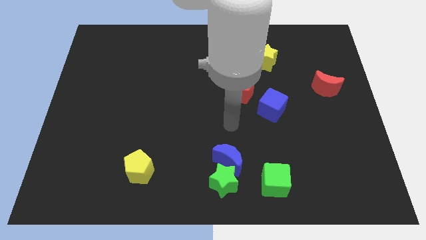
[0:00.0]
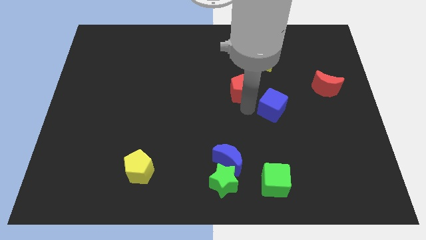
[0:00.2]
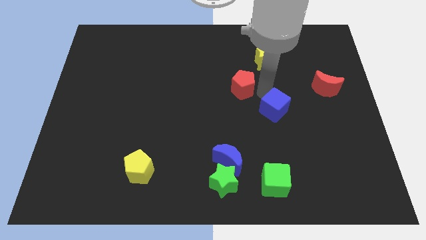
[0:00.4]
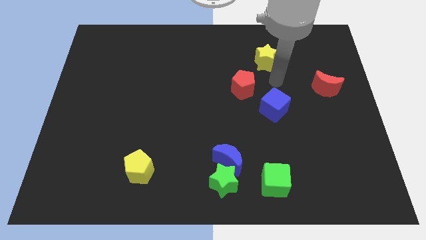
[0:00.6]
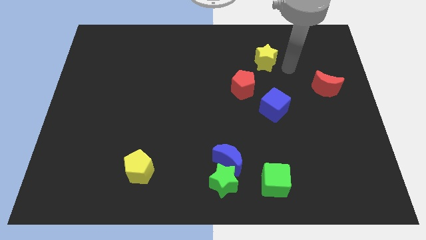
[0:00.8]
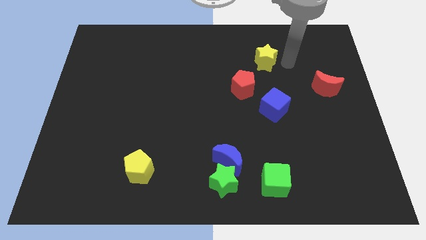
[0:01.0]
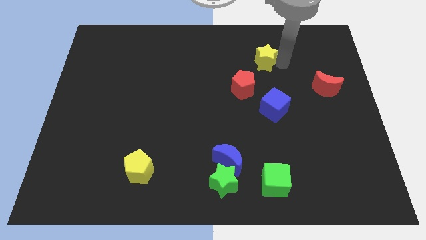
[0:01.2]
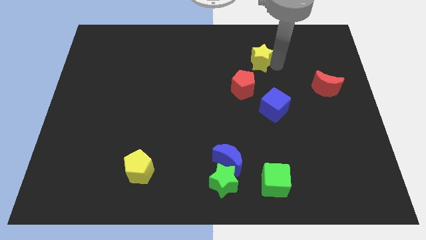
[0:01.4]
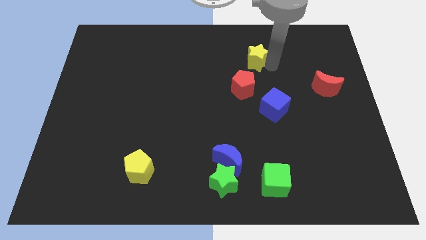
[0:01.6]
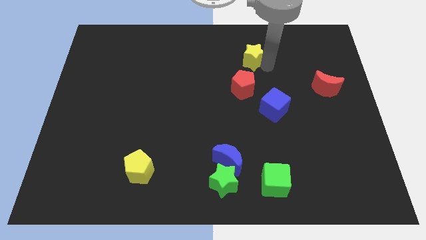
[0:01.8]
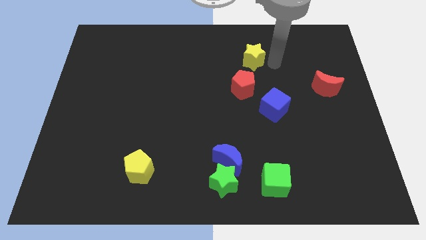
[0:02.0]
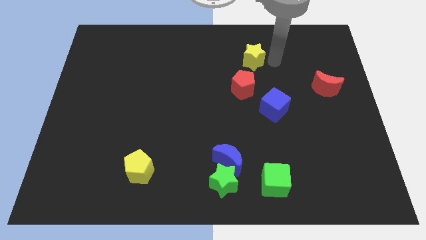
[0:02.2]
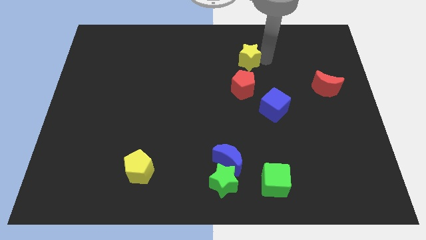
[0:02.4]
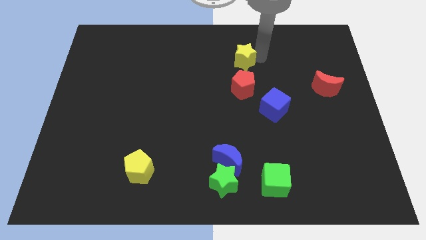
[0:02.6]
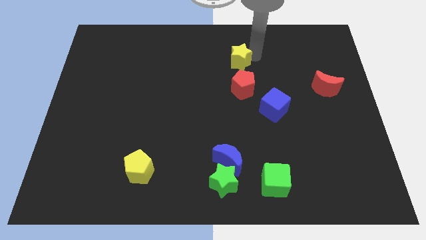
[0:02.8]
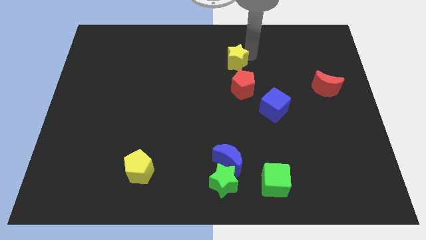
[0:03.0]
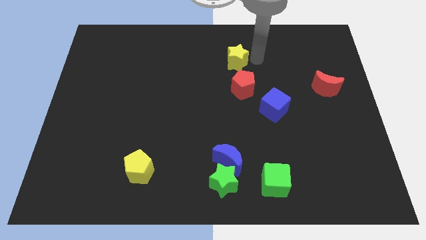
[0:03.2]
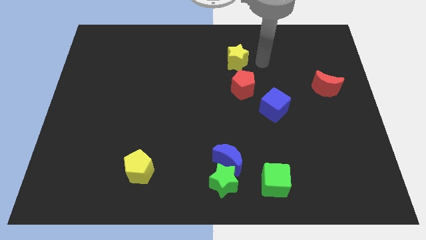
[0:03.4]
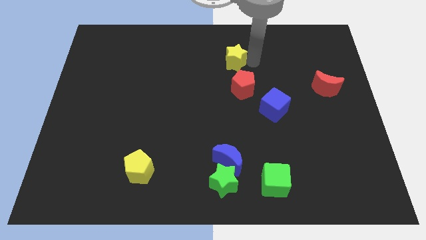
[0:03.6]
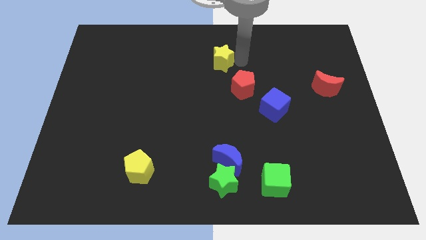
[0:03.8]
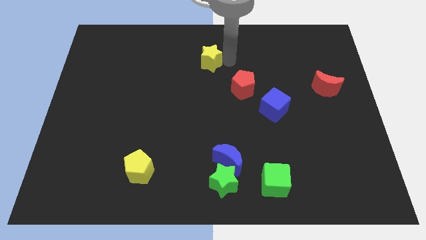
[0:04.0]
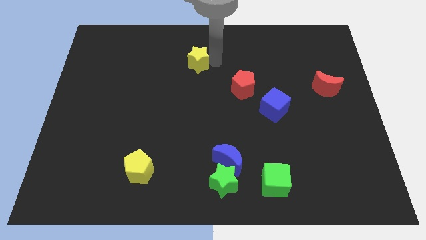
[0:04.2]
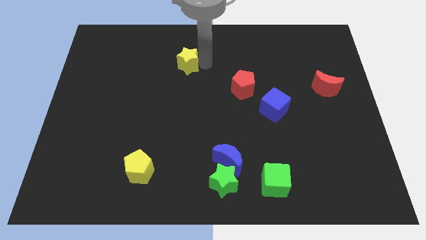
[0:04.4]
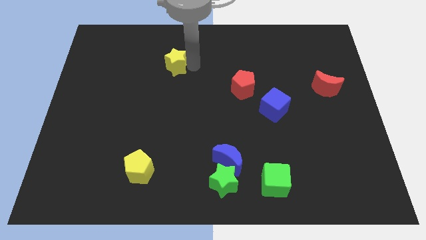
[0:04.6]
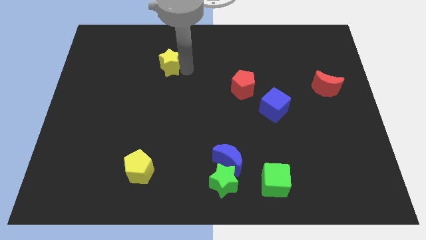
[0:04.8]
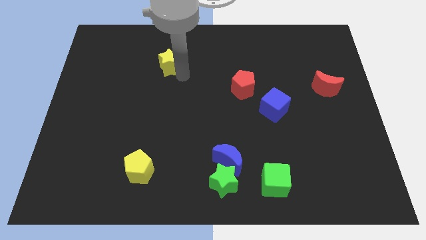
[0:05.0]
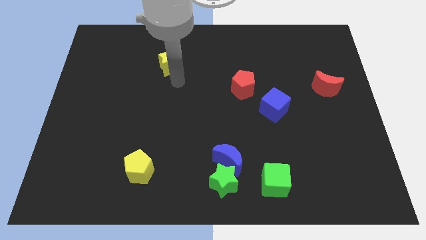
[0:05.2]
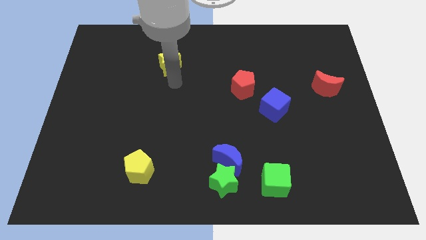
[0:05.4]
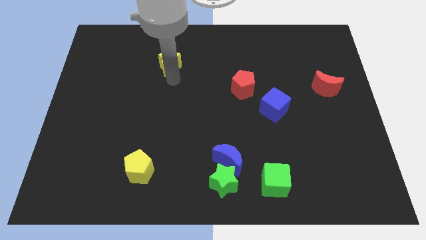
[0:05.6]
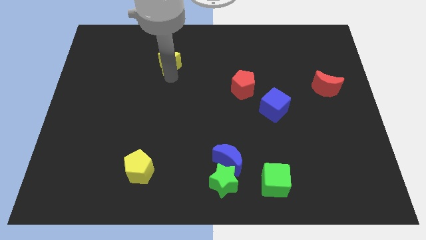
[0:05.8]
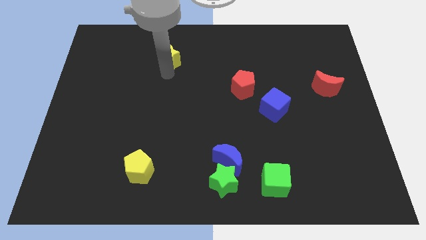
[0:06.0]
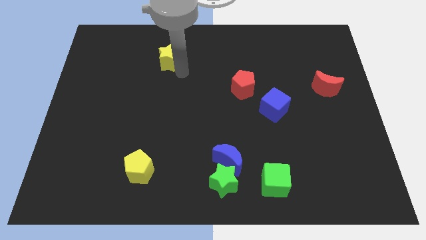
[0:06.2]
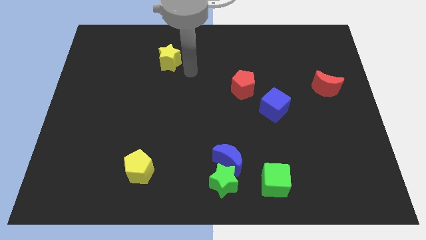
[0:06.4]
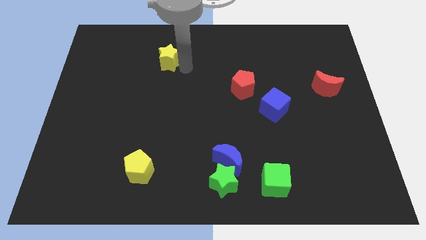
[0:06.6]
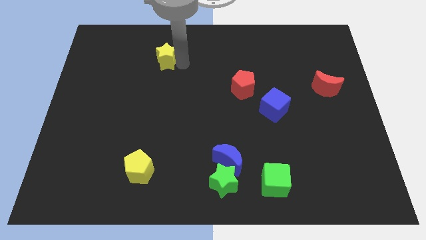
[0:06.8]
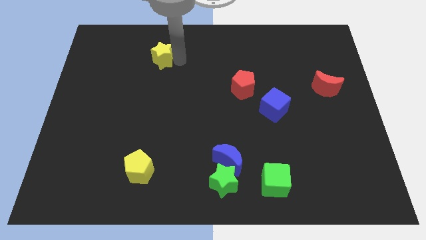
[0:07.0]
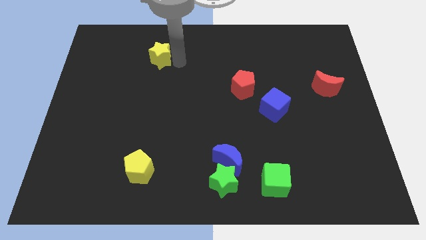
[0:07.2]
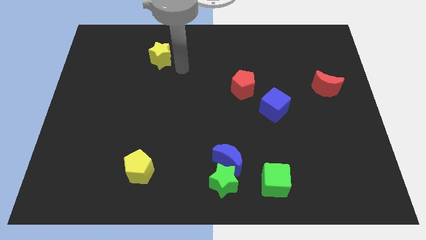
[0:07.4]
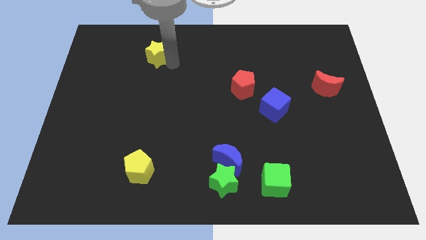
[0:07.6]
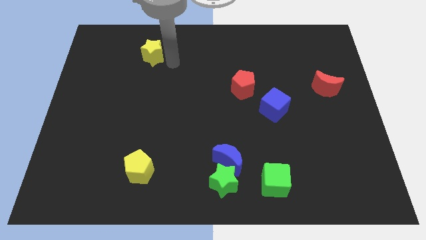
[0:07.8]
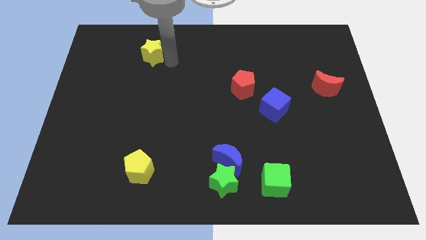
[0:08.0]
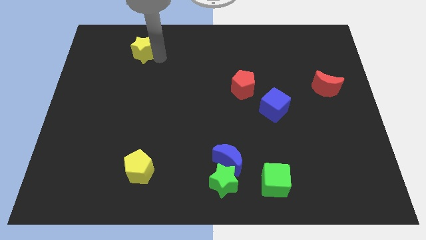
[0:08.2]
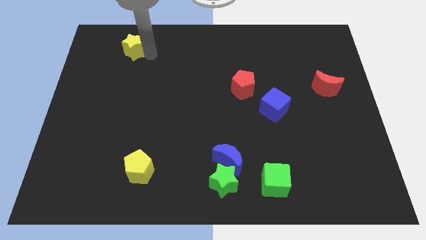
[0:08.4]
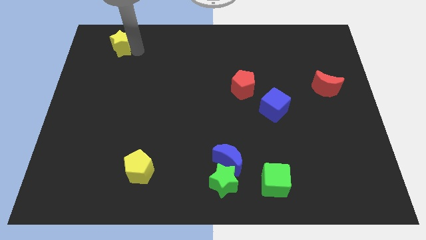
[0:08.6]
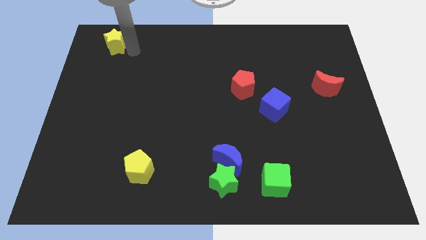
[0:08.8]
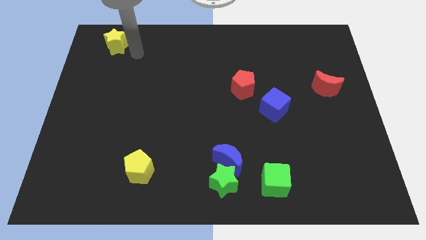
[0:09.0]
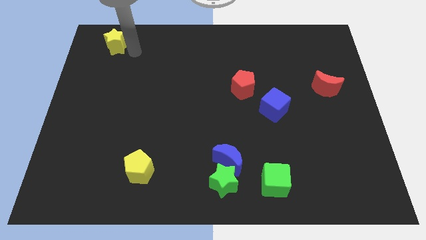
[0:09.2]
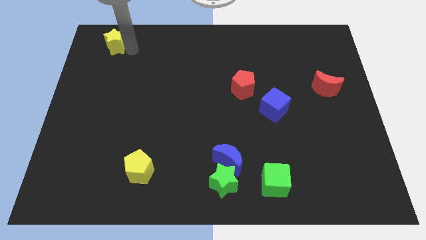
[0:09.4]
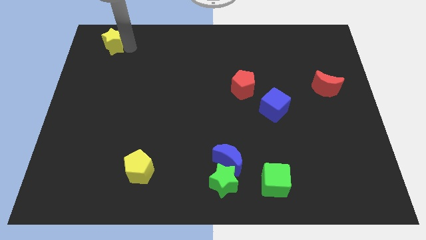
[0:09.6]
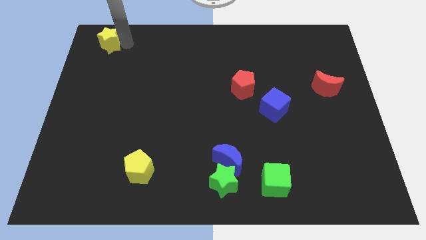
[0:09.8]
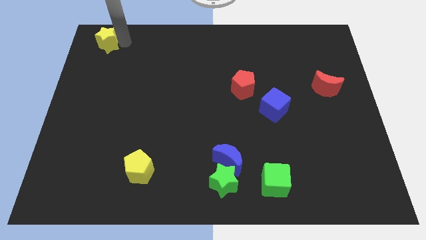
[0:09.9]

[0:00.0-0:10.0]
slide the yellow star to the top left corner

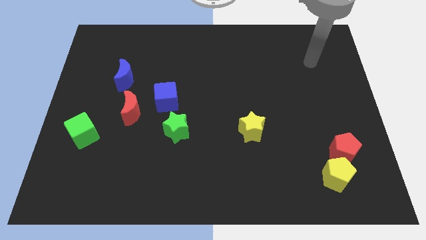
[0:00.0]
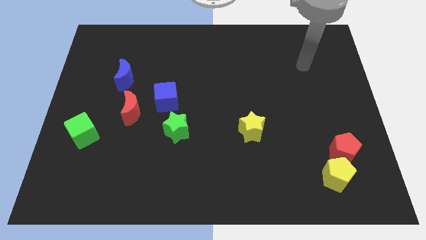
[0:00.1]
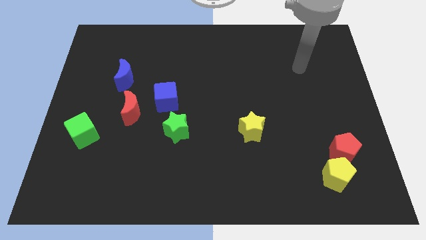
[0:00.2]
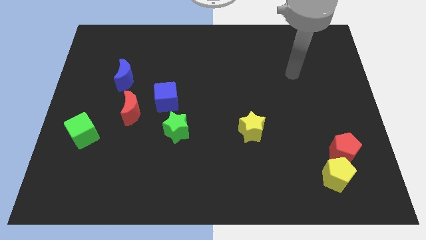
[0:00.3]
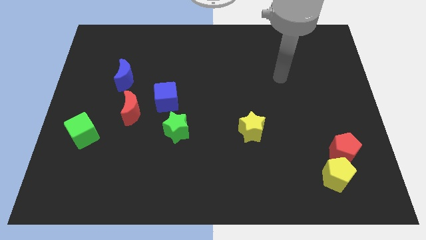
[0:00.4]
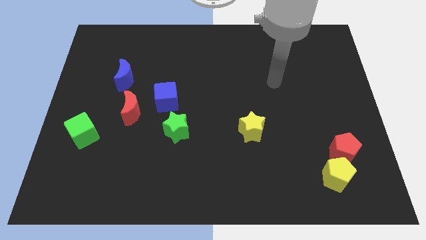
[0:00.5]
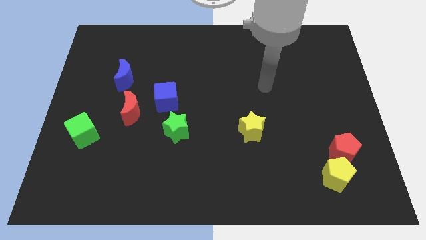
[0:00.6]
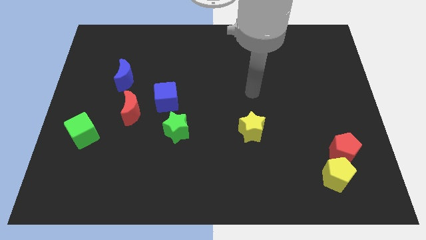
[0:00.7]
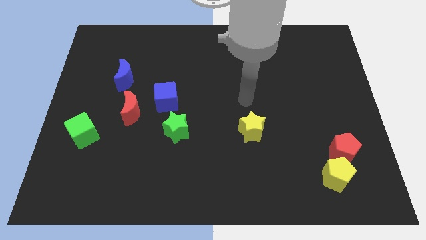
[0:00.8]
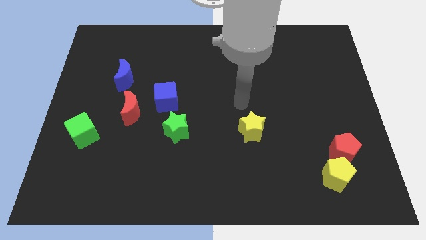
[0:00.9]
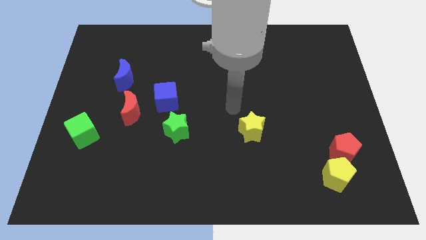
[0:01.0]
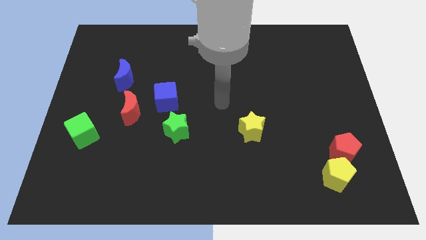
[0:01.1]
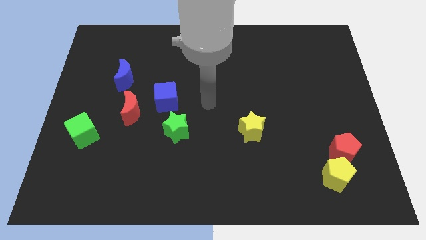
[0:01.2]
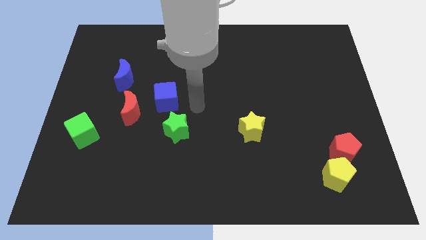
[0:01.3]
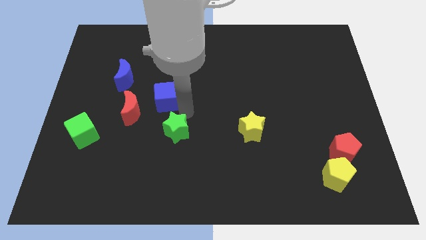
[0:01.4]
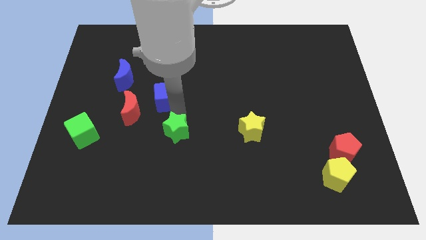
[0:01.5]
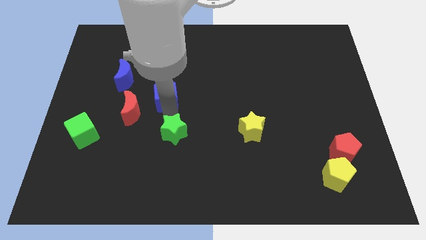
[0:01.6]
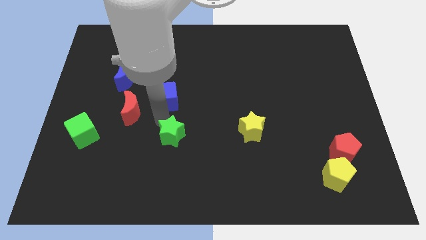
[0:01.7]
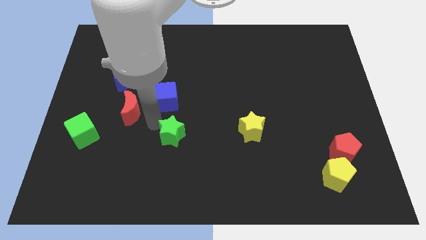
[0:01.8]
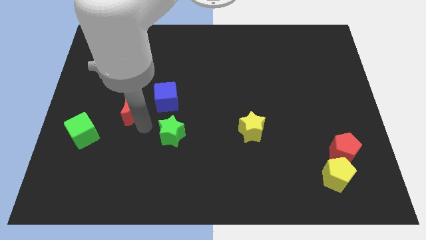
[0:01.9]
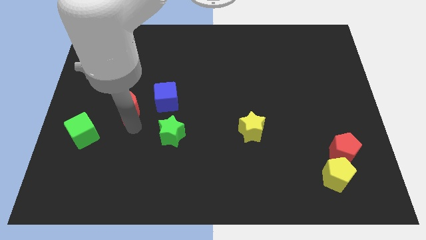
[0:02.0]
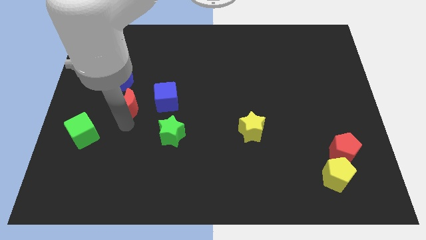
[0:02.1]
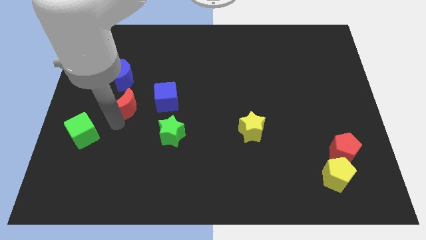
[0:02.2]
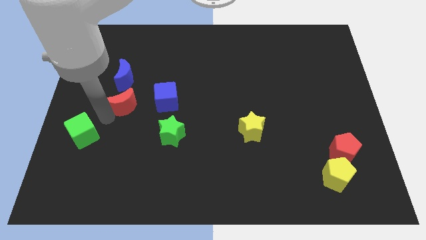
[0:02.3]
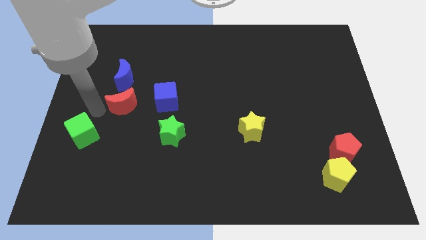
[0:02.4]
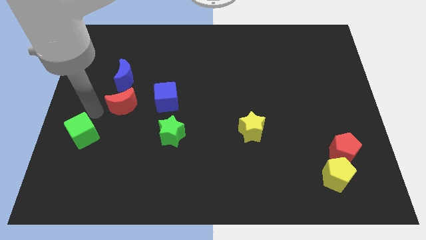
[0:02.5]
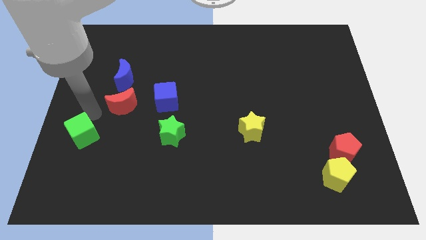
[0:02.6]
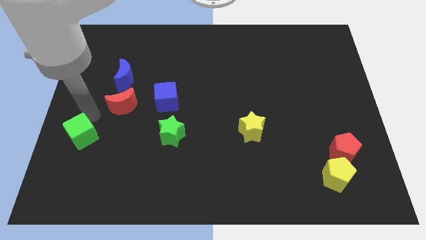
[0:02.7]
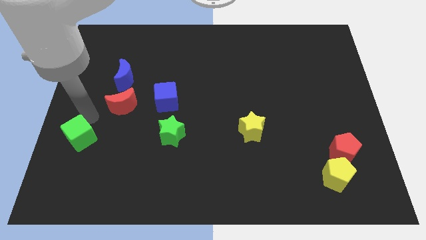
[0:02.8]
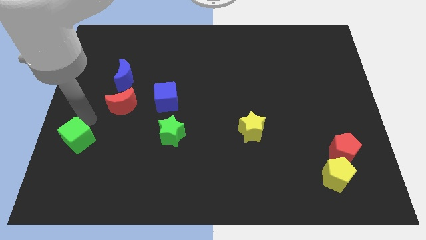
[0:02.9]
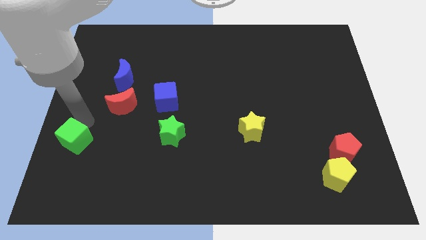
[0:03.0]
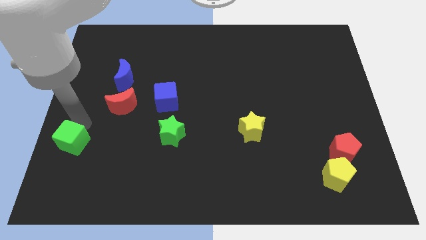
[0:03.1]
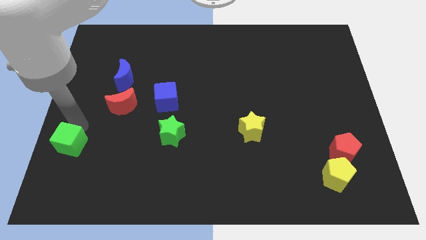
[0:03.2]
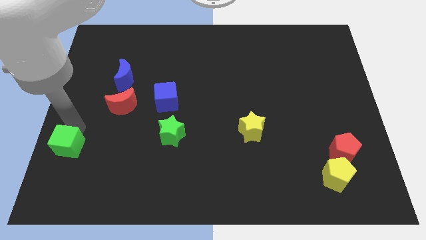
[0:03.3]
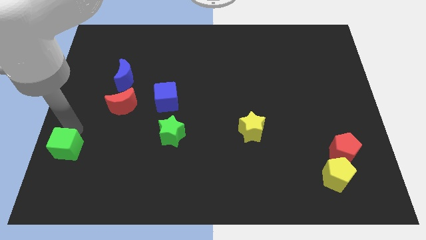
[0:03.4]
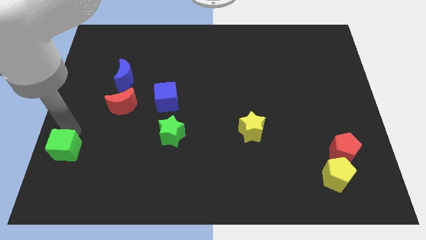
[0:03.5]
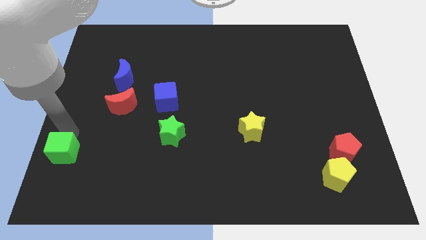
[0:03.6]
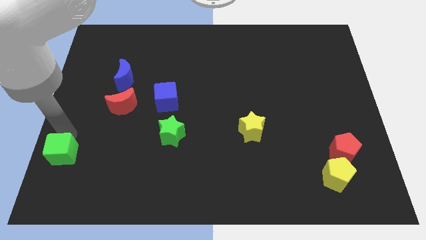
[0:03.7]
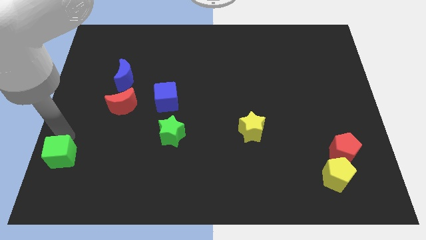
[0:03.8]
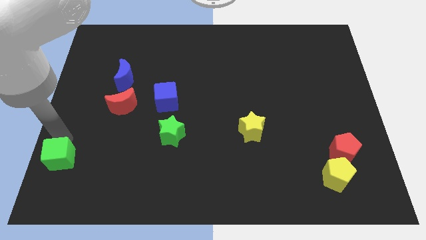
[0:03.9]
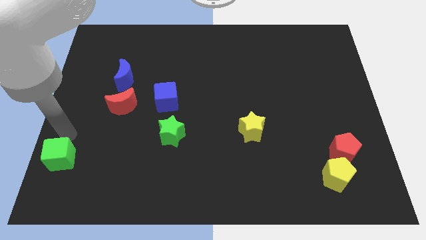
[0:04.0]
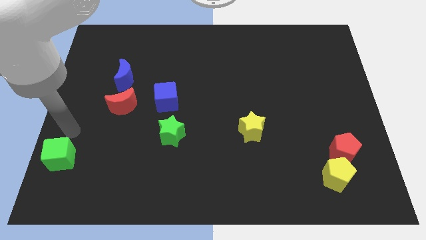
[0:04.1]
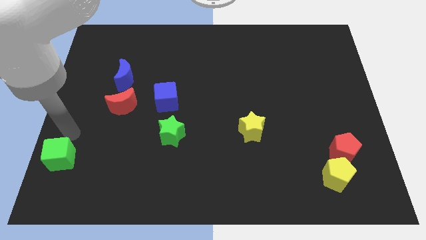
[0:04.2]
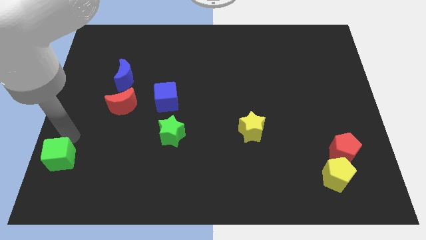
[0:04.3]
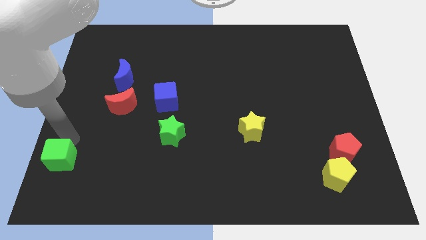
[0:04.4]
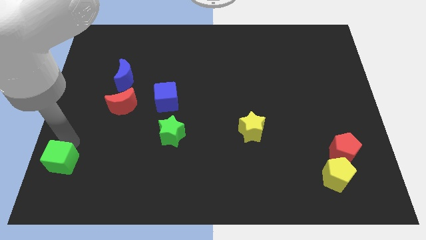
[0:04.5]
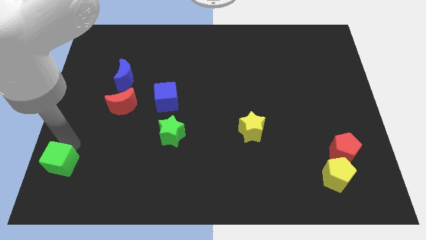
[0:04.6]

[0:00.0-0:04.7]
slide the green cube to the lower left corner
